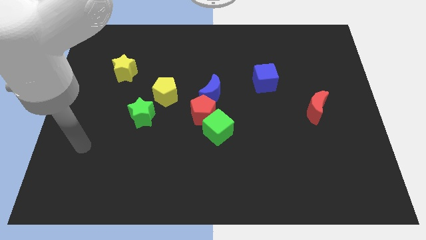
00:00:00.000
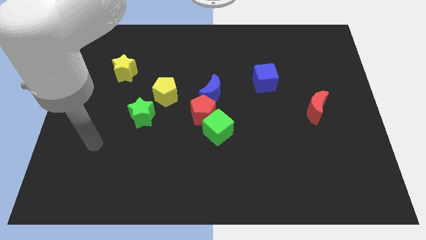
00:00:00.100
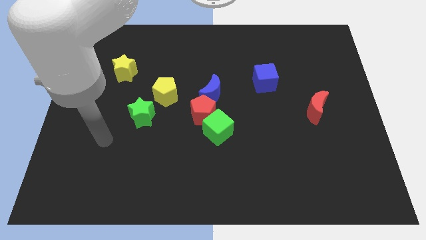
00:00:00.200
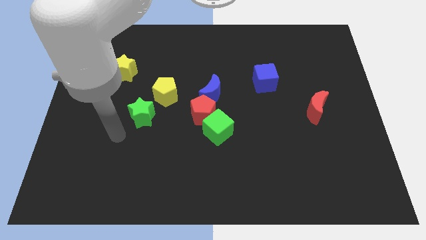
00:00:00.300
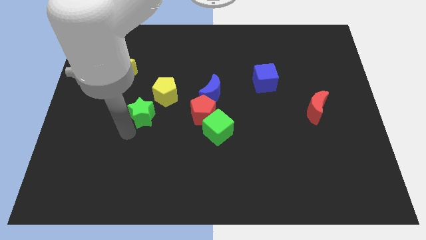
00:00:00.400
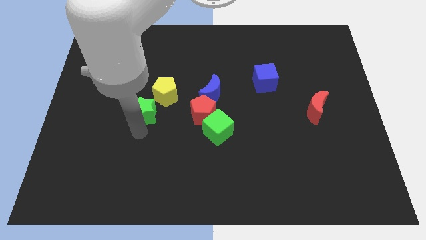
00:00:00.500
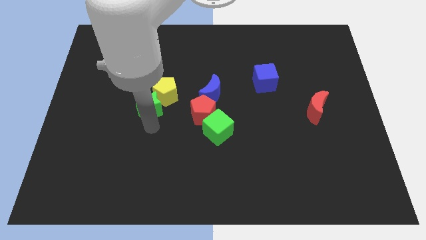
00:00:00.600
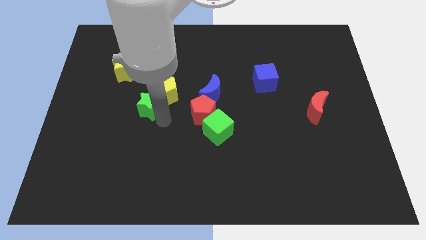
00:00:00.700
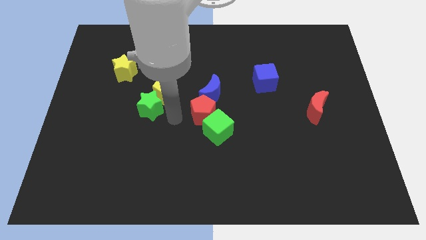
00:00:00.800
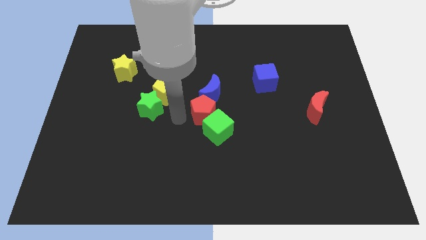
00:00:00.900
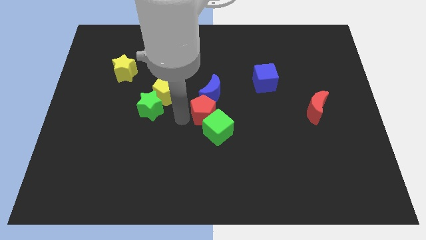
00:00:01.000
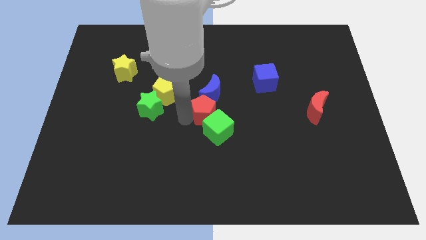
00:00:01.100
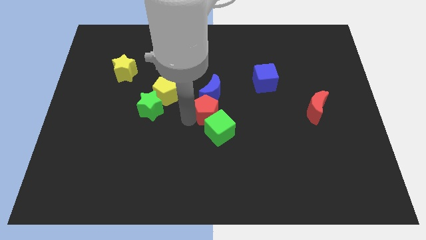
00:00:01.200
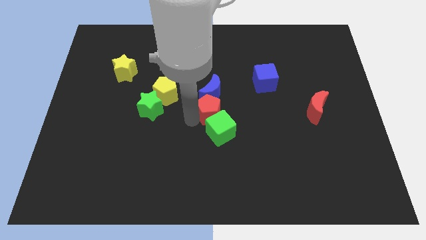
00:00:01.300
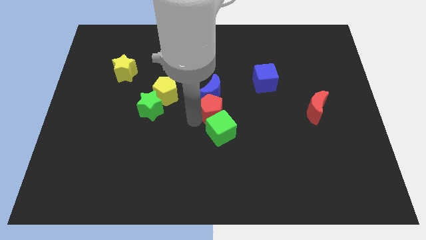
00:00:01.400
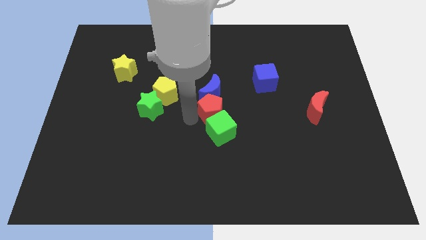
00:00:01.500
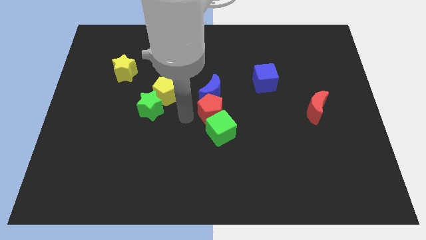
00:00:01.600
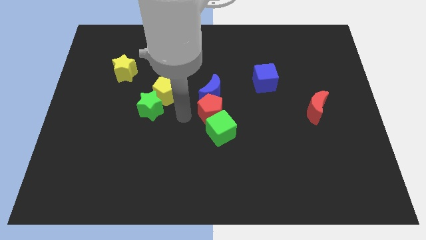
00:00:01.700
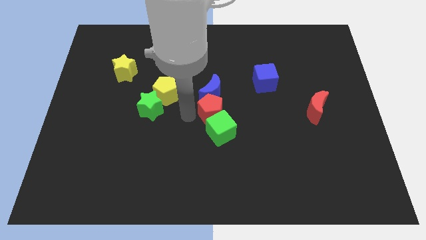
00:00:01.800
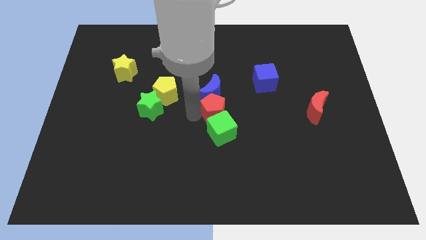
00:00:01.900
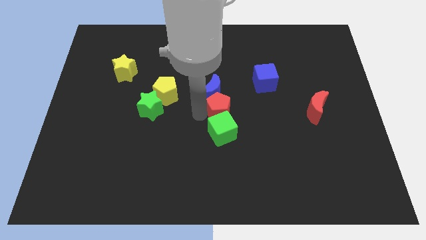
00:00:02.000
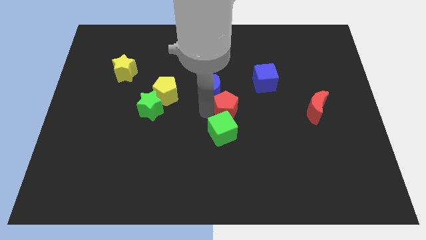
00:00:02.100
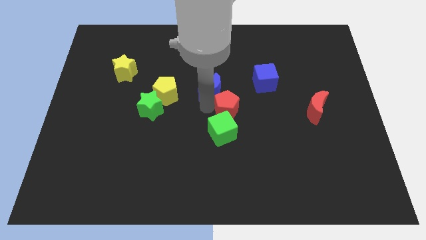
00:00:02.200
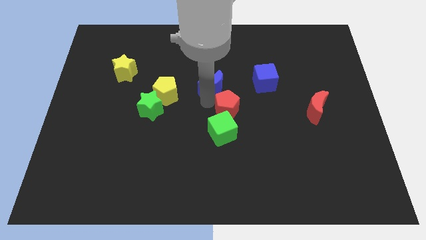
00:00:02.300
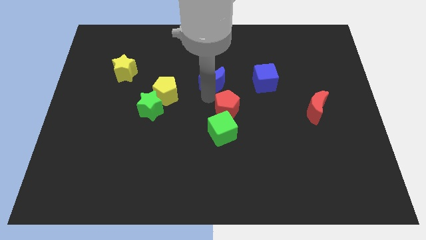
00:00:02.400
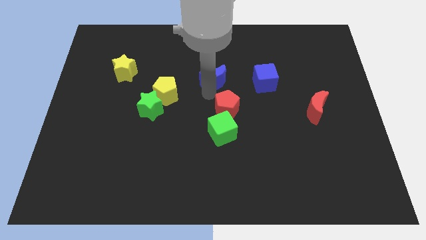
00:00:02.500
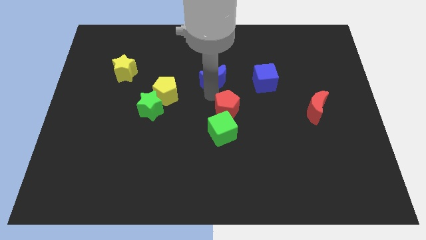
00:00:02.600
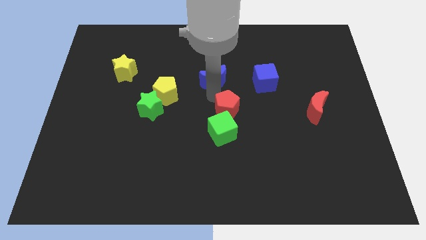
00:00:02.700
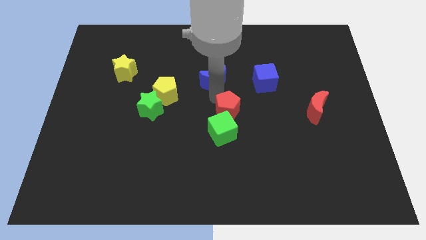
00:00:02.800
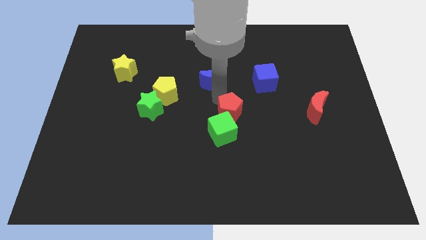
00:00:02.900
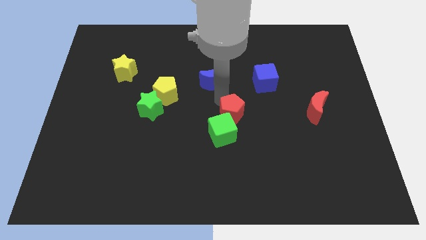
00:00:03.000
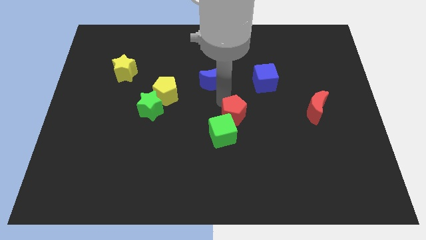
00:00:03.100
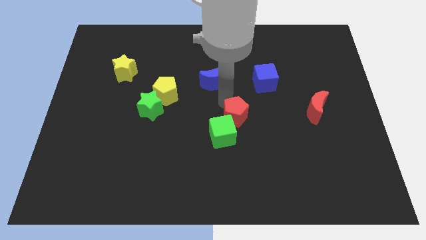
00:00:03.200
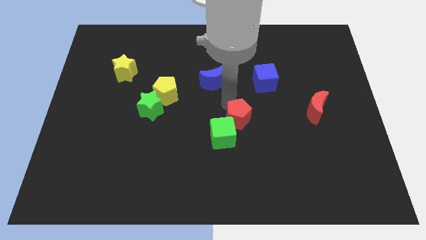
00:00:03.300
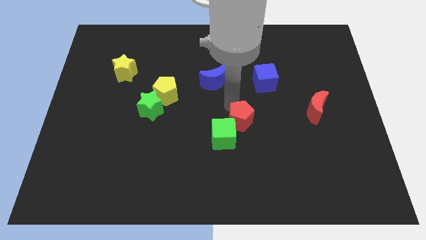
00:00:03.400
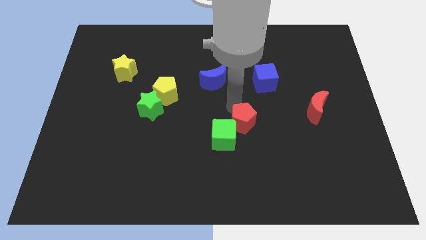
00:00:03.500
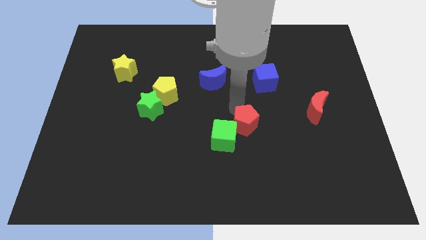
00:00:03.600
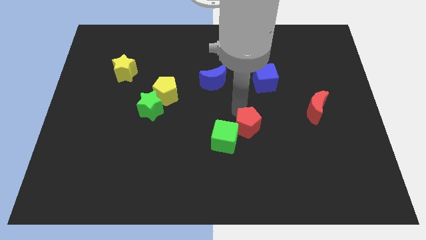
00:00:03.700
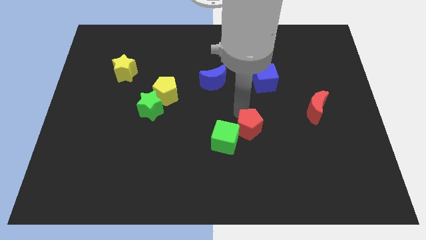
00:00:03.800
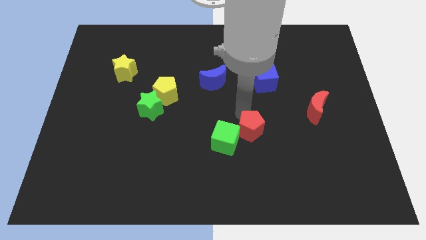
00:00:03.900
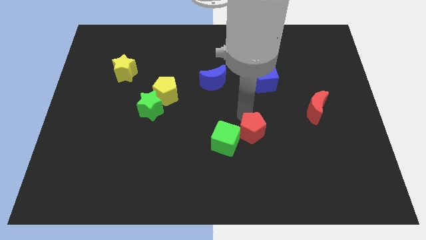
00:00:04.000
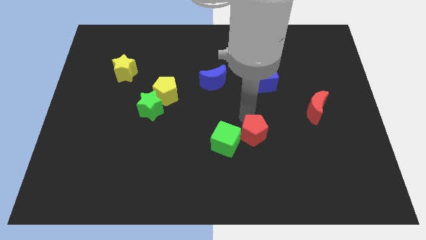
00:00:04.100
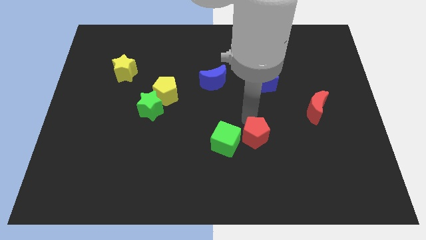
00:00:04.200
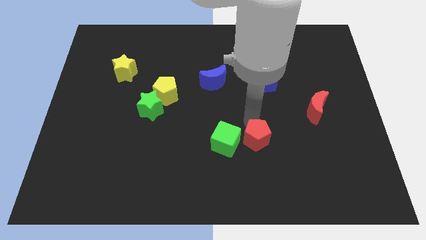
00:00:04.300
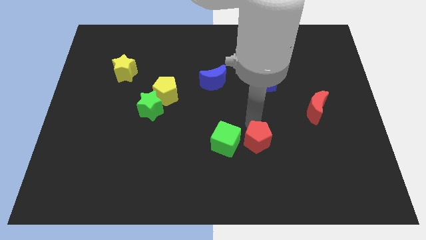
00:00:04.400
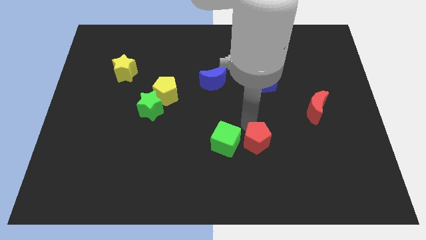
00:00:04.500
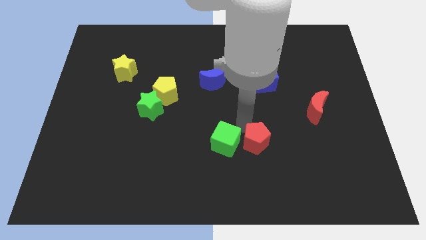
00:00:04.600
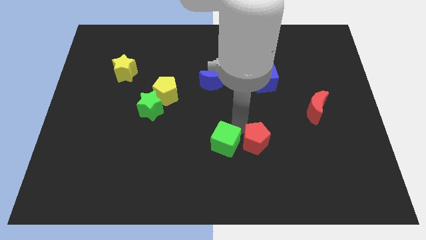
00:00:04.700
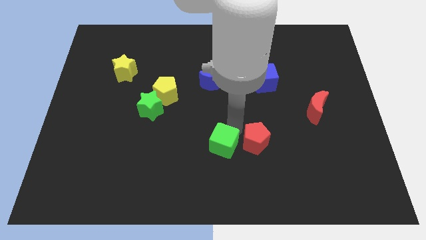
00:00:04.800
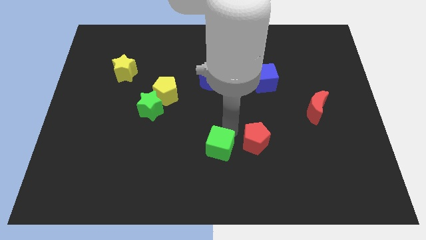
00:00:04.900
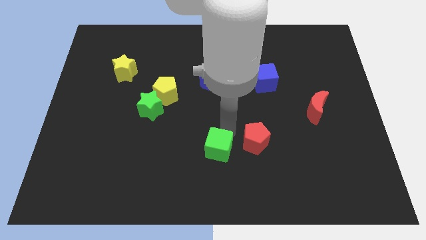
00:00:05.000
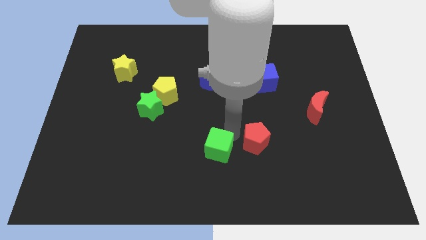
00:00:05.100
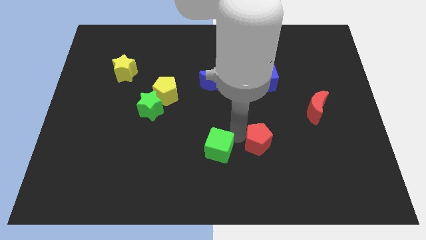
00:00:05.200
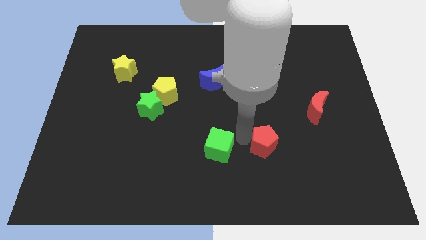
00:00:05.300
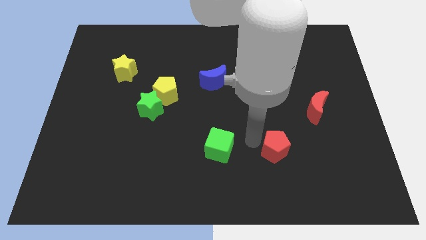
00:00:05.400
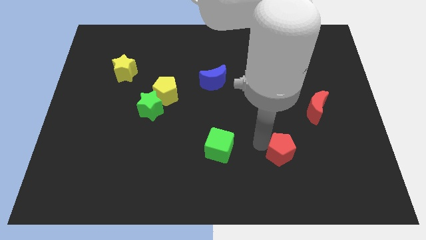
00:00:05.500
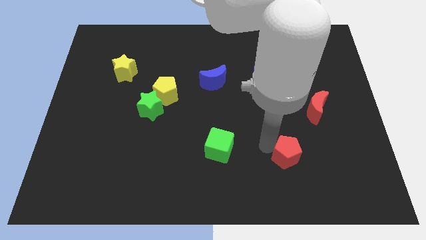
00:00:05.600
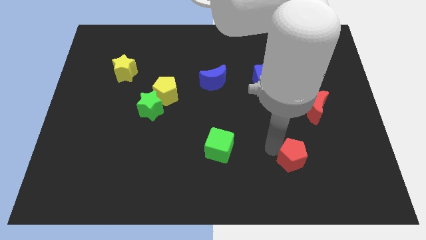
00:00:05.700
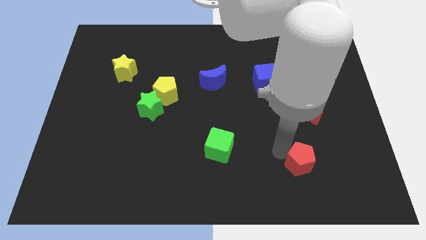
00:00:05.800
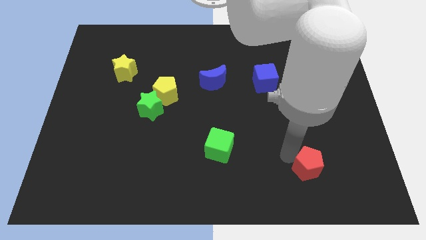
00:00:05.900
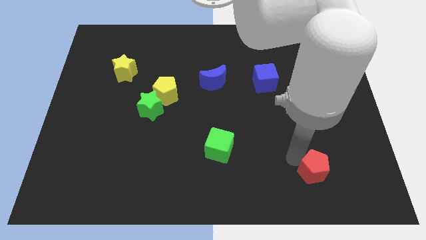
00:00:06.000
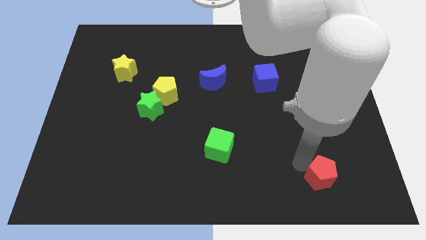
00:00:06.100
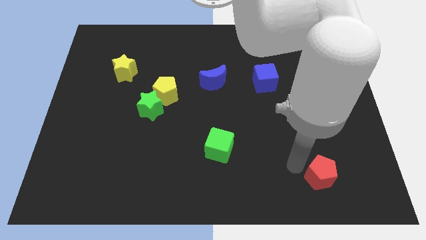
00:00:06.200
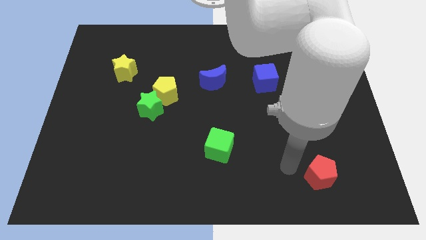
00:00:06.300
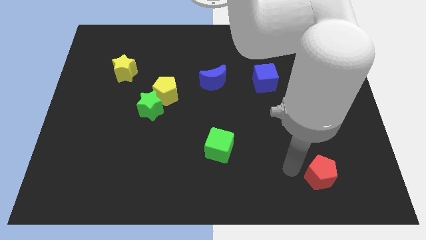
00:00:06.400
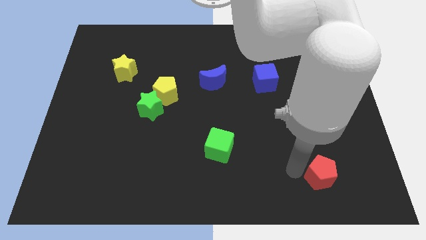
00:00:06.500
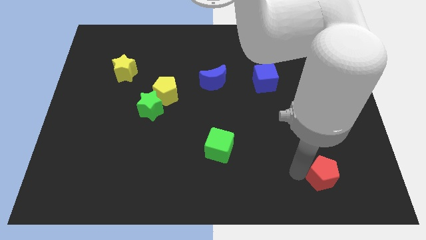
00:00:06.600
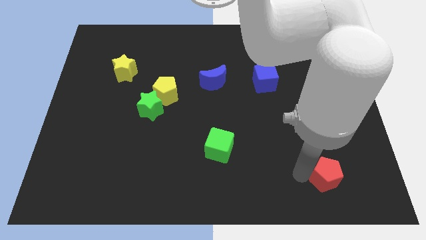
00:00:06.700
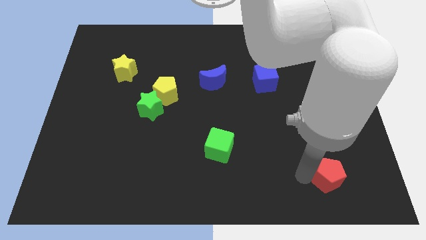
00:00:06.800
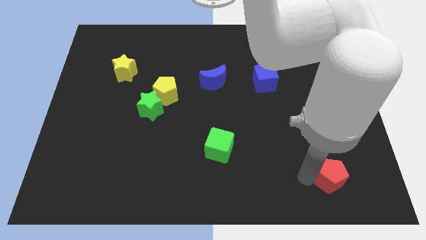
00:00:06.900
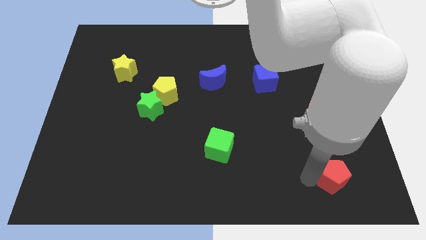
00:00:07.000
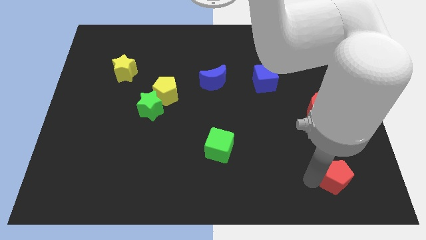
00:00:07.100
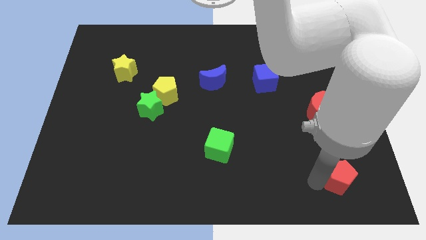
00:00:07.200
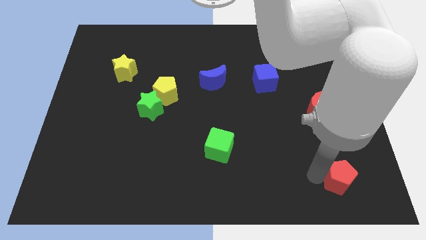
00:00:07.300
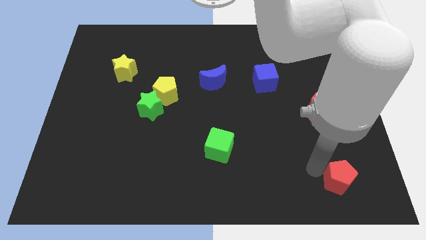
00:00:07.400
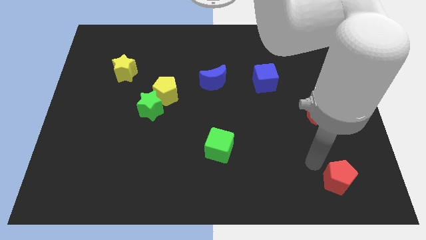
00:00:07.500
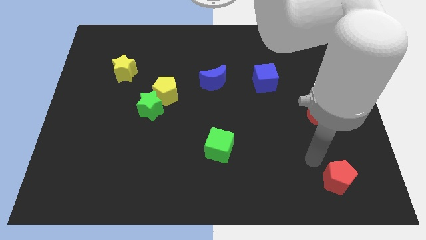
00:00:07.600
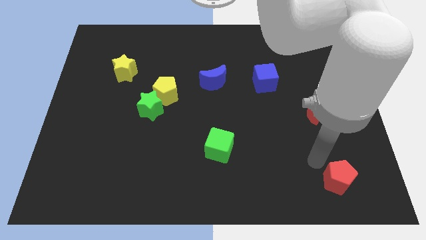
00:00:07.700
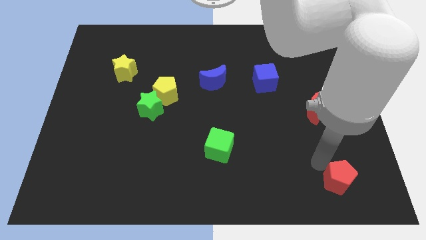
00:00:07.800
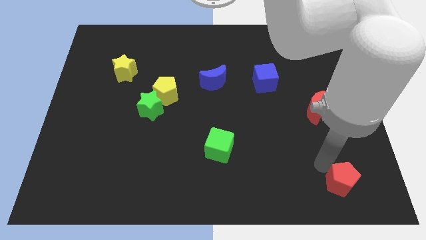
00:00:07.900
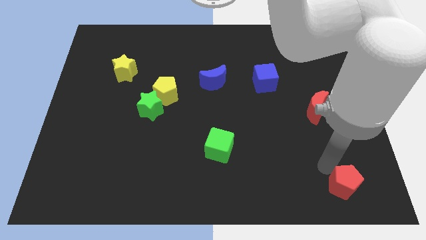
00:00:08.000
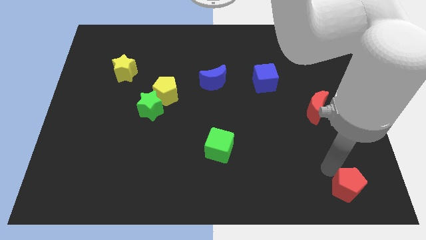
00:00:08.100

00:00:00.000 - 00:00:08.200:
slide the red pentagon to the bottom right
